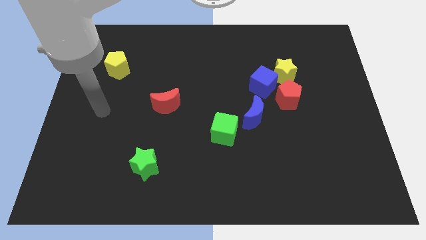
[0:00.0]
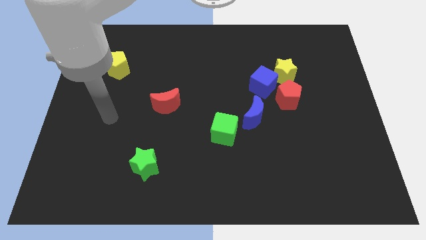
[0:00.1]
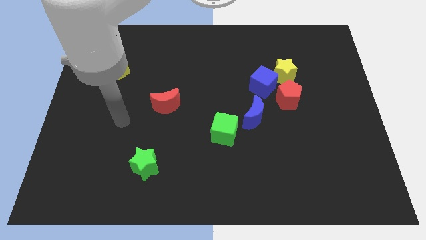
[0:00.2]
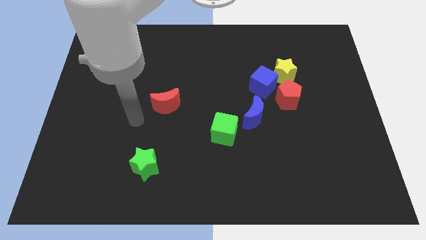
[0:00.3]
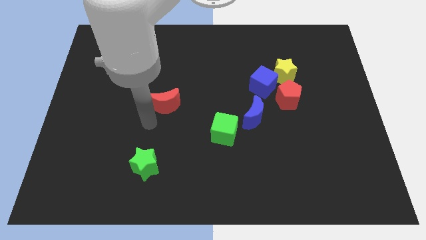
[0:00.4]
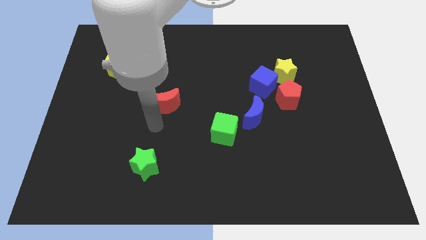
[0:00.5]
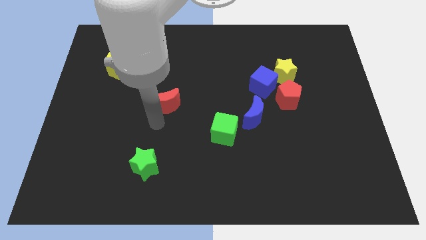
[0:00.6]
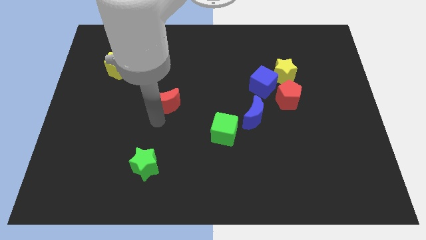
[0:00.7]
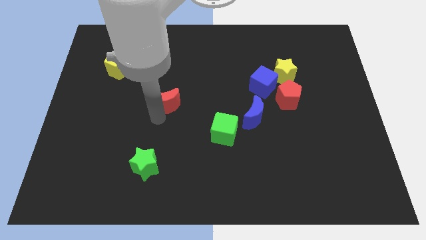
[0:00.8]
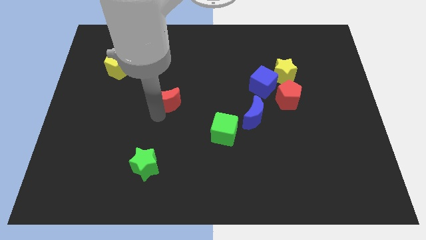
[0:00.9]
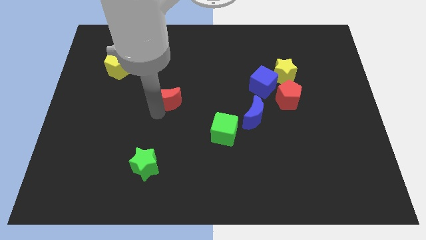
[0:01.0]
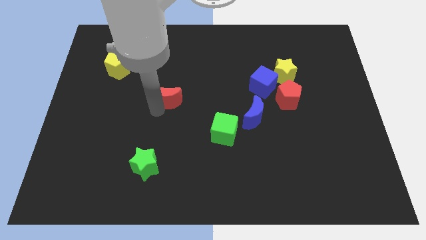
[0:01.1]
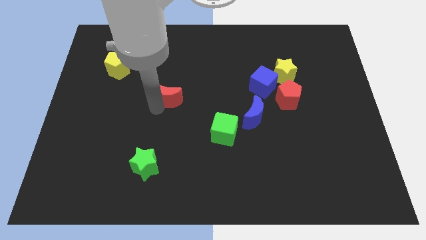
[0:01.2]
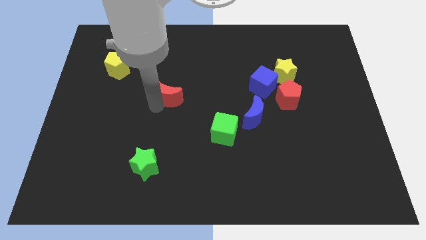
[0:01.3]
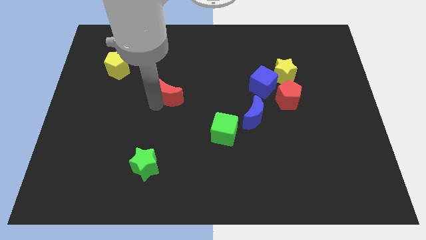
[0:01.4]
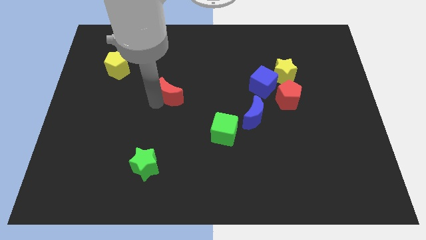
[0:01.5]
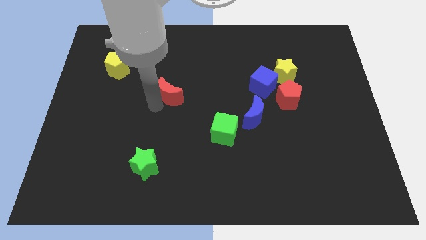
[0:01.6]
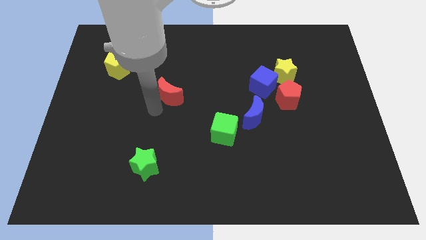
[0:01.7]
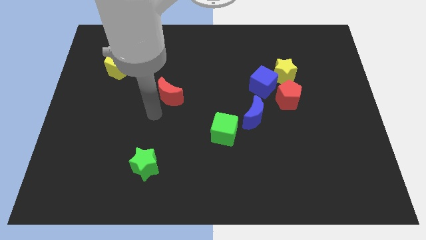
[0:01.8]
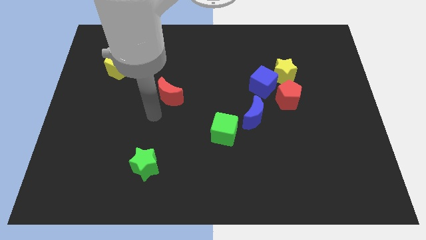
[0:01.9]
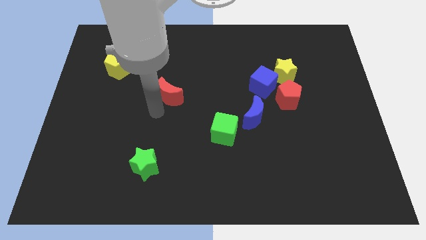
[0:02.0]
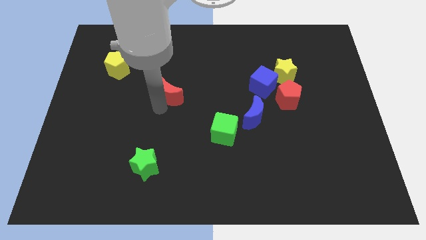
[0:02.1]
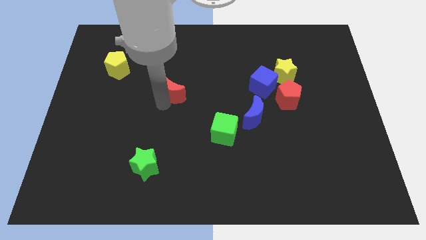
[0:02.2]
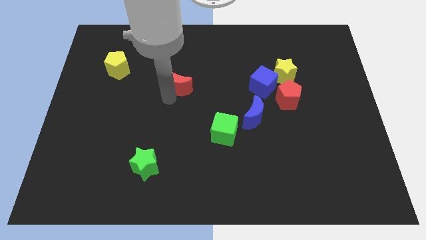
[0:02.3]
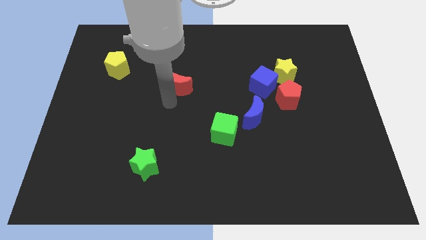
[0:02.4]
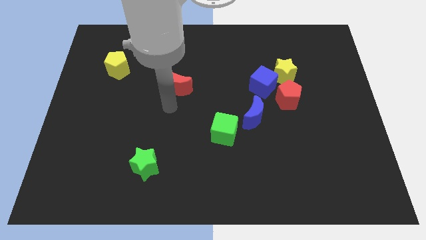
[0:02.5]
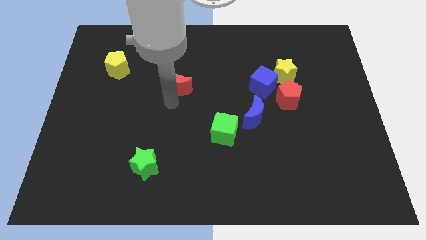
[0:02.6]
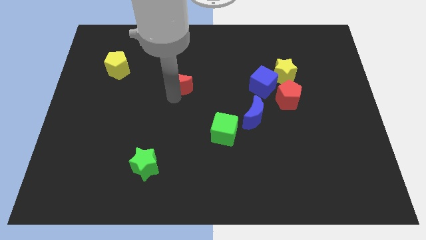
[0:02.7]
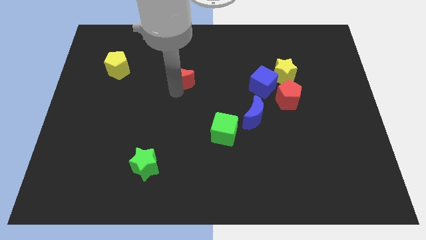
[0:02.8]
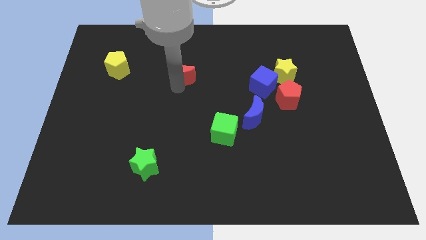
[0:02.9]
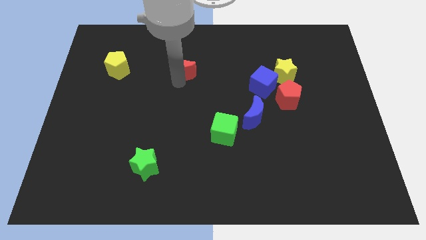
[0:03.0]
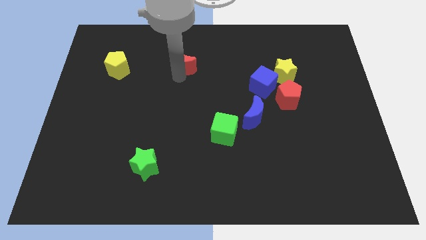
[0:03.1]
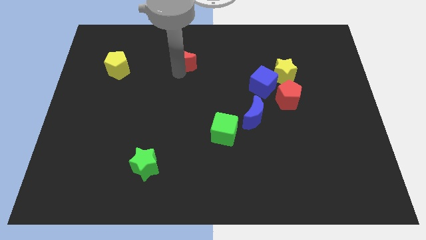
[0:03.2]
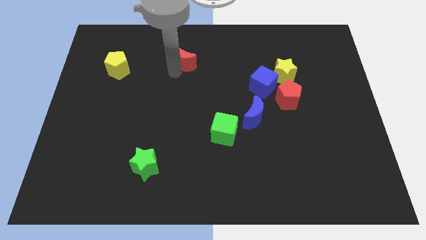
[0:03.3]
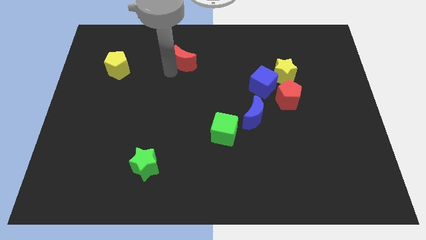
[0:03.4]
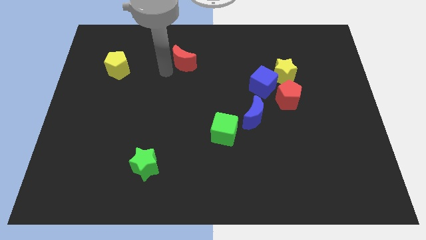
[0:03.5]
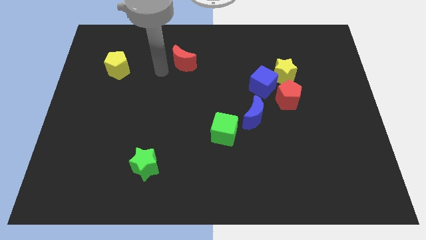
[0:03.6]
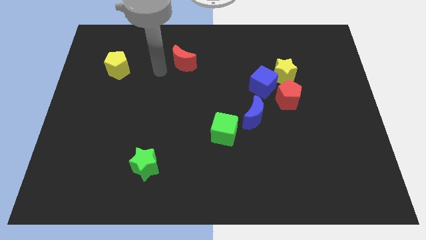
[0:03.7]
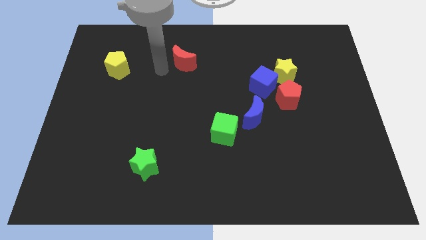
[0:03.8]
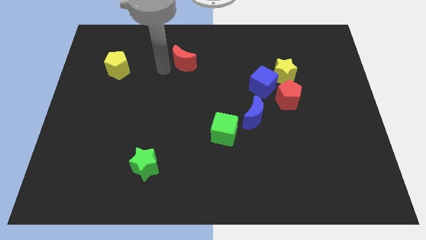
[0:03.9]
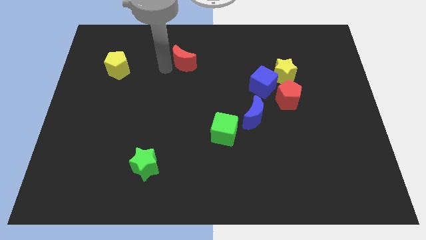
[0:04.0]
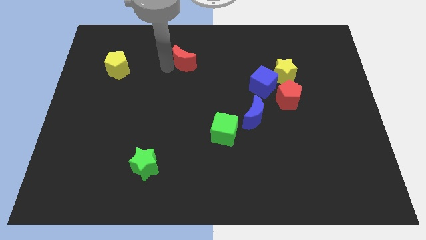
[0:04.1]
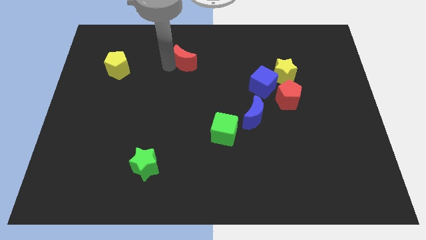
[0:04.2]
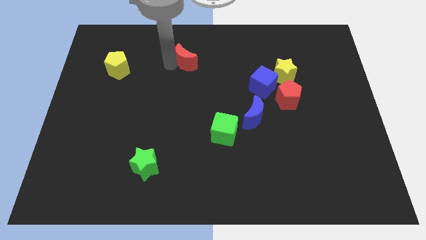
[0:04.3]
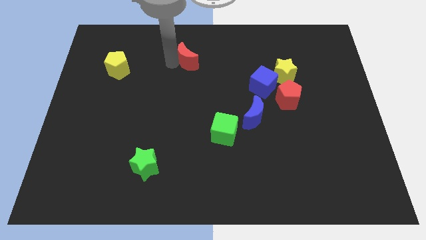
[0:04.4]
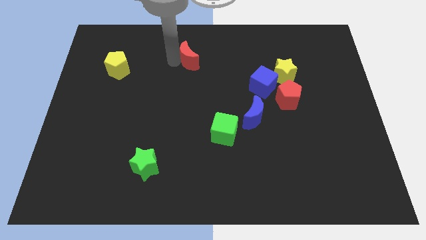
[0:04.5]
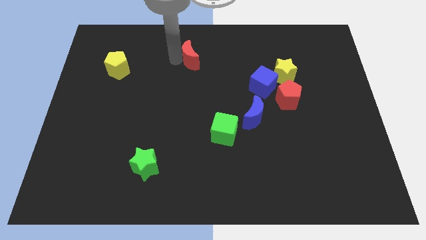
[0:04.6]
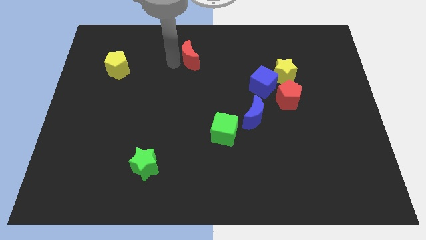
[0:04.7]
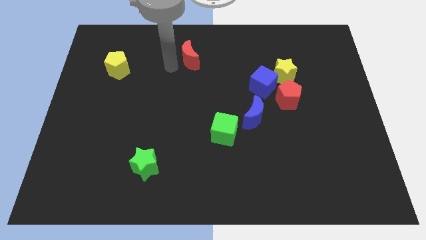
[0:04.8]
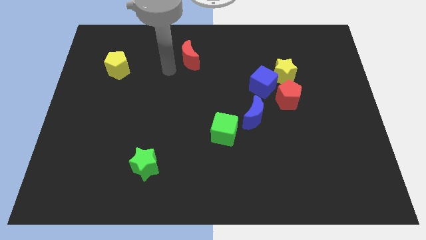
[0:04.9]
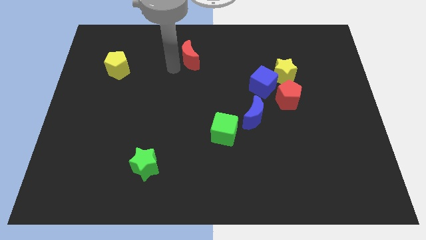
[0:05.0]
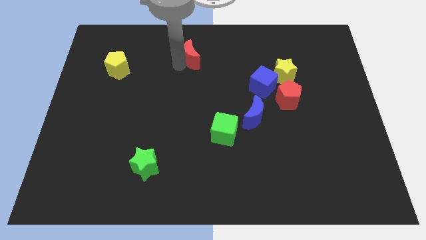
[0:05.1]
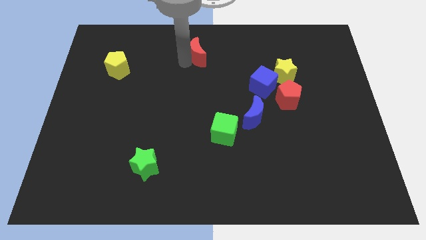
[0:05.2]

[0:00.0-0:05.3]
move the red moon to the top side

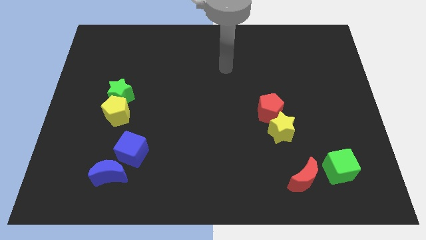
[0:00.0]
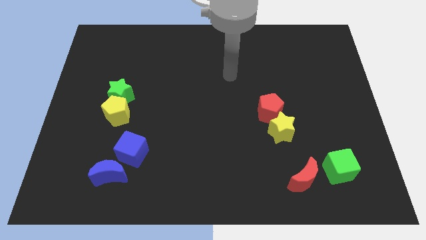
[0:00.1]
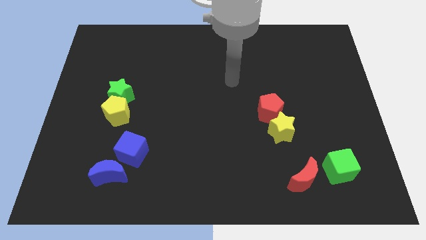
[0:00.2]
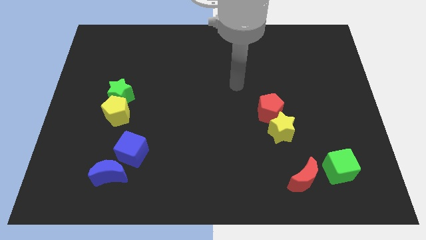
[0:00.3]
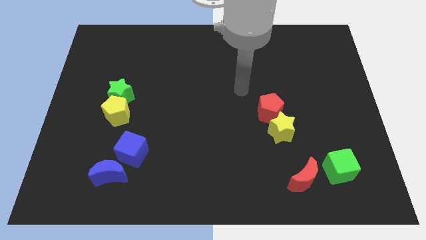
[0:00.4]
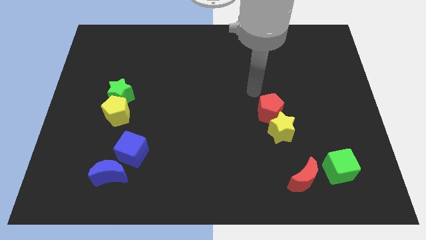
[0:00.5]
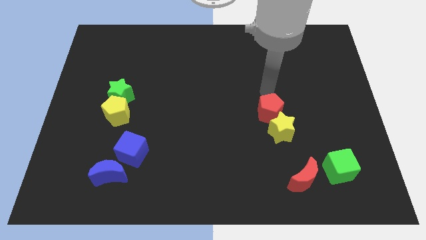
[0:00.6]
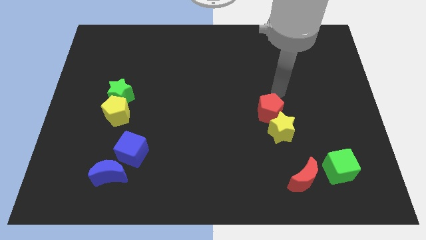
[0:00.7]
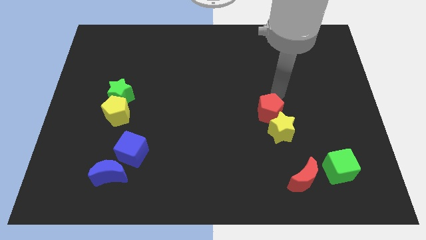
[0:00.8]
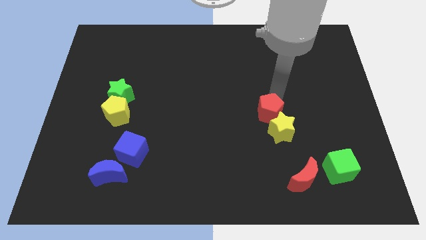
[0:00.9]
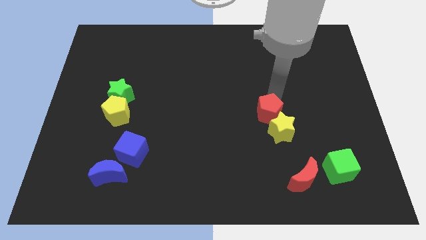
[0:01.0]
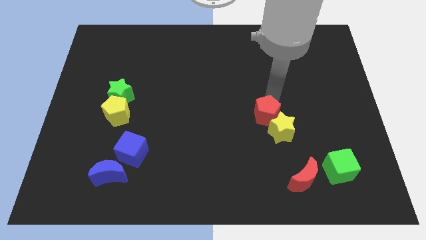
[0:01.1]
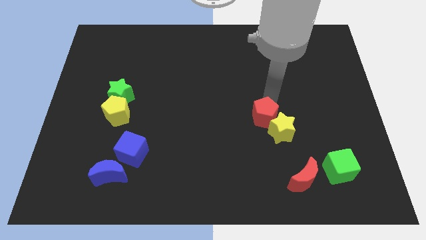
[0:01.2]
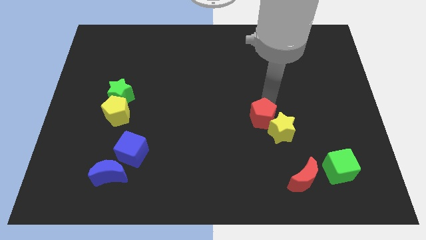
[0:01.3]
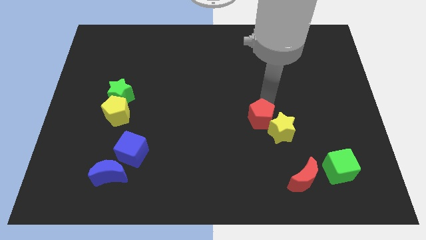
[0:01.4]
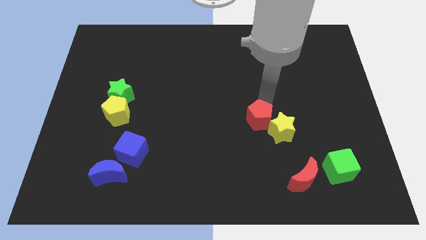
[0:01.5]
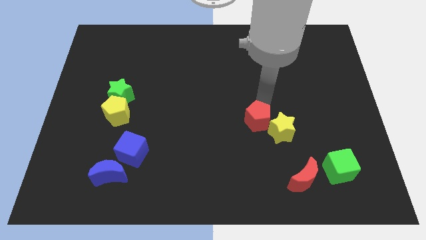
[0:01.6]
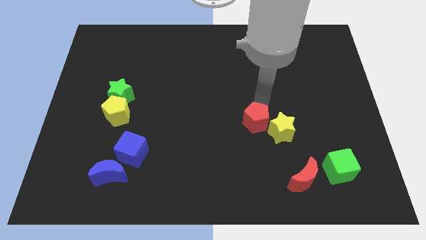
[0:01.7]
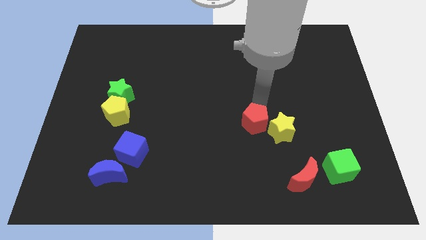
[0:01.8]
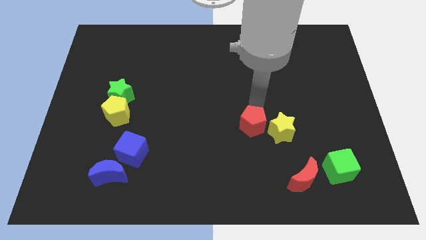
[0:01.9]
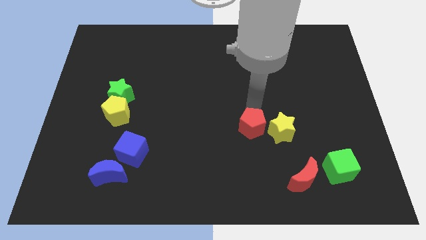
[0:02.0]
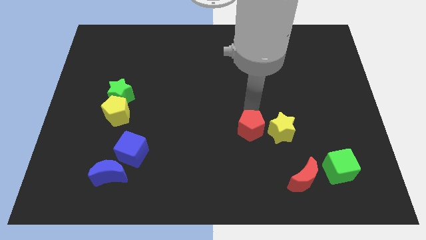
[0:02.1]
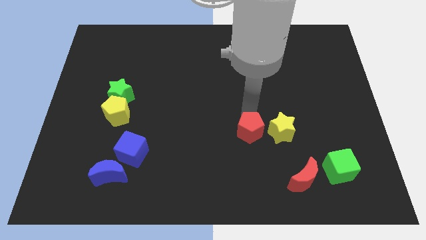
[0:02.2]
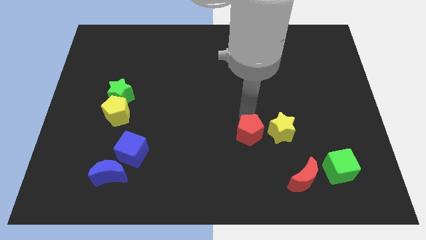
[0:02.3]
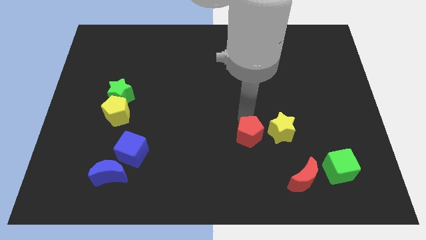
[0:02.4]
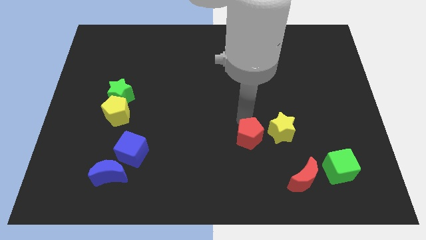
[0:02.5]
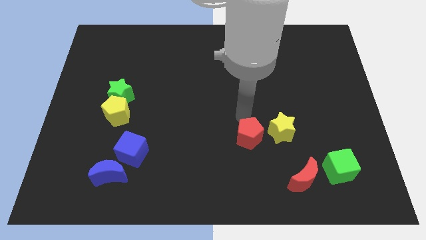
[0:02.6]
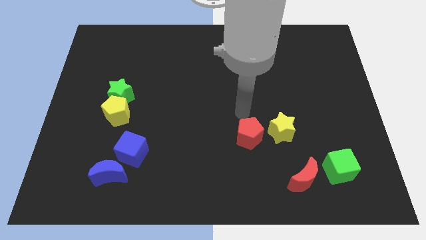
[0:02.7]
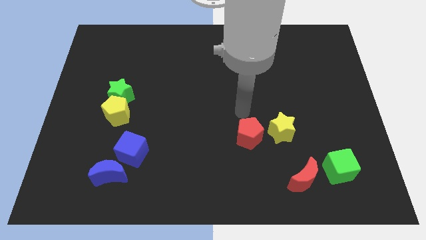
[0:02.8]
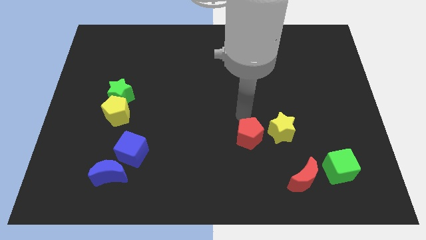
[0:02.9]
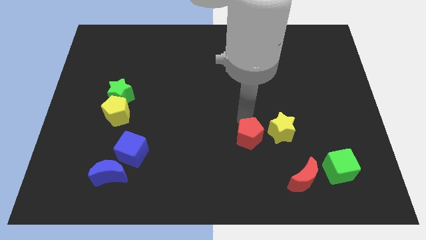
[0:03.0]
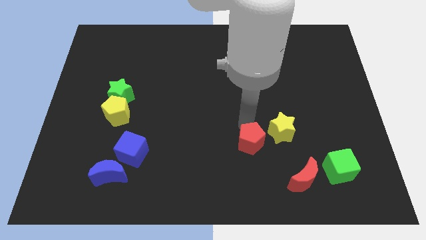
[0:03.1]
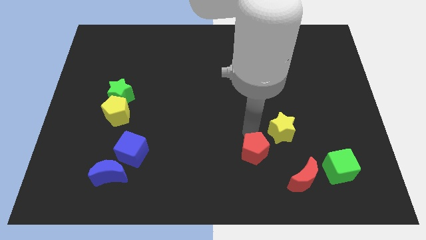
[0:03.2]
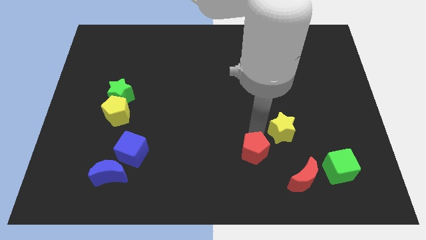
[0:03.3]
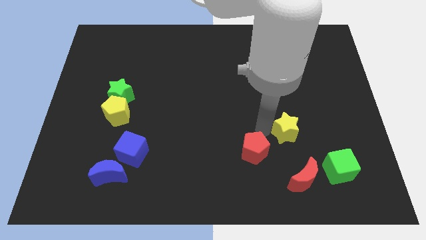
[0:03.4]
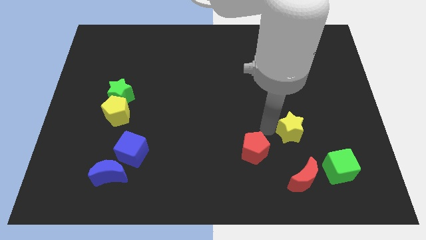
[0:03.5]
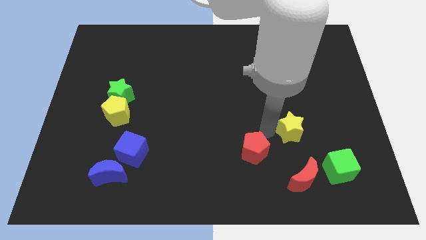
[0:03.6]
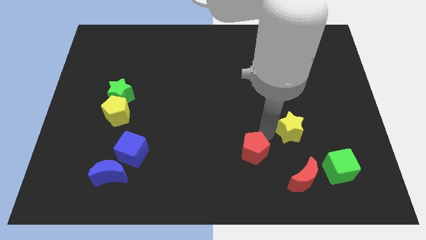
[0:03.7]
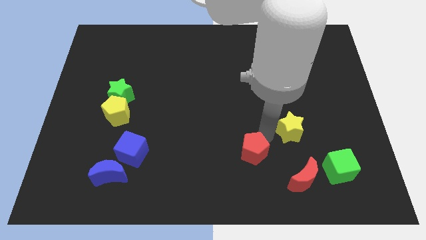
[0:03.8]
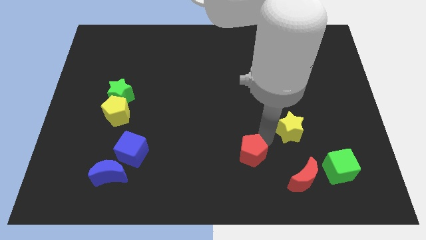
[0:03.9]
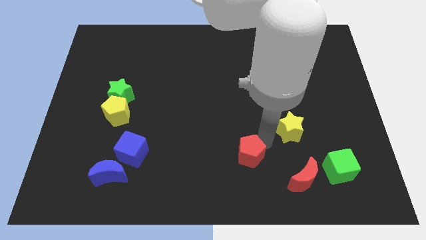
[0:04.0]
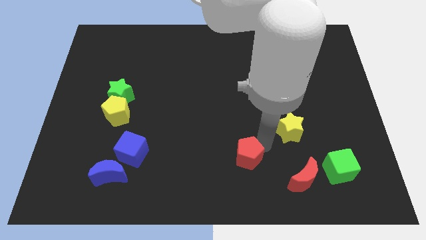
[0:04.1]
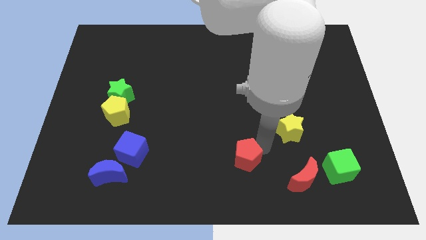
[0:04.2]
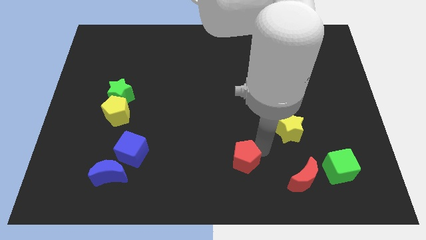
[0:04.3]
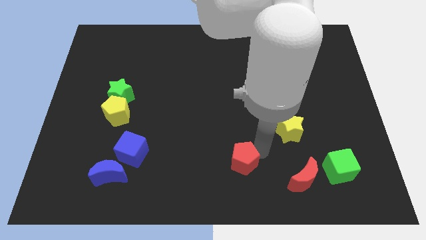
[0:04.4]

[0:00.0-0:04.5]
put the red pentagon to the bottom
